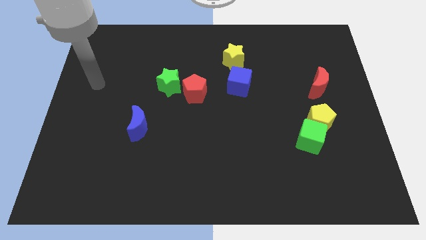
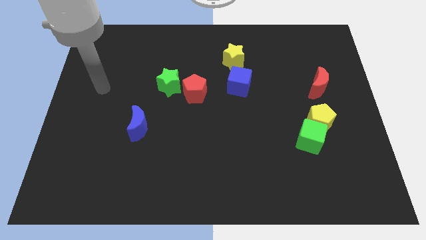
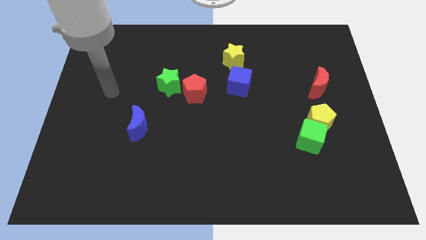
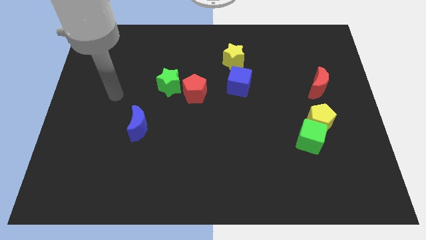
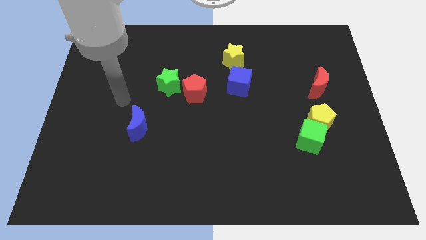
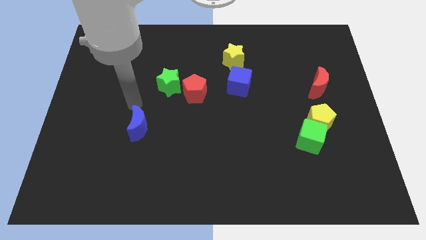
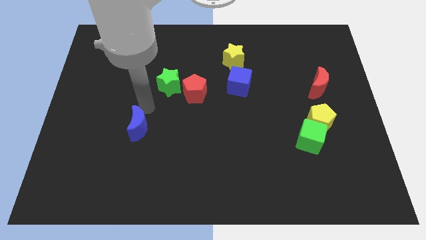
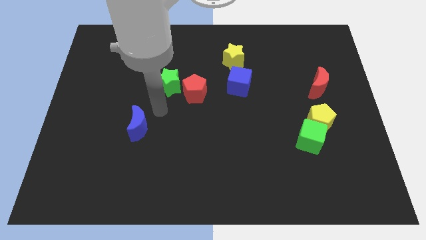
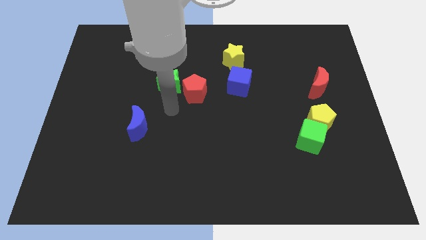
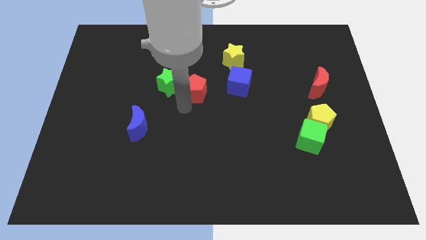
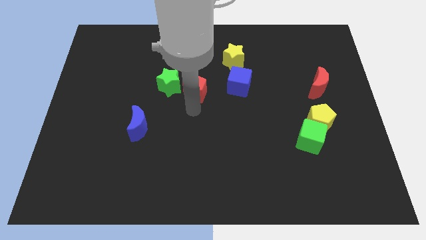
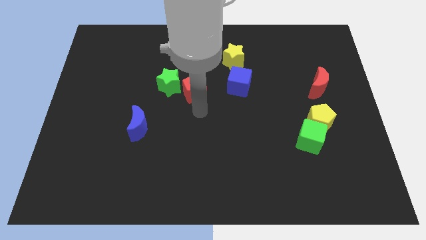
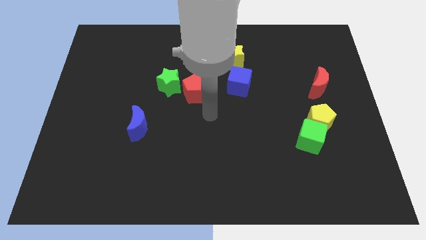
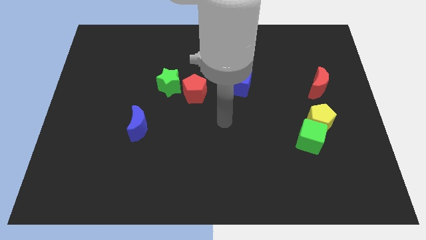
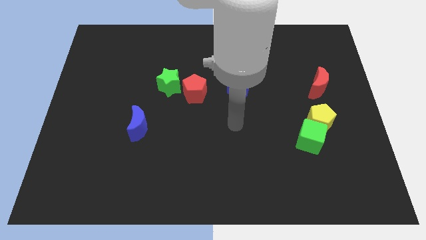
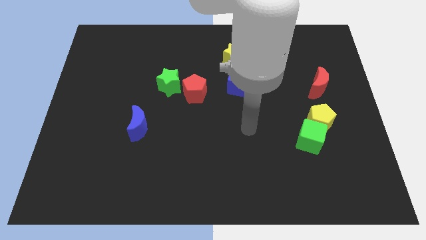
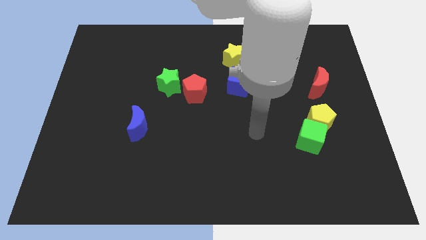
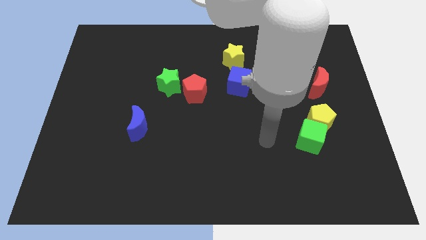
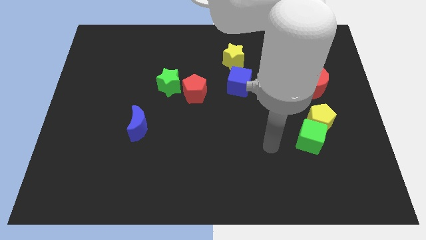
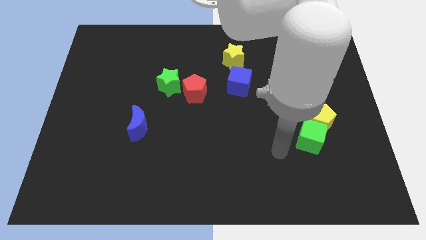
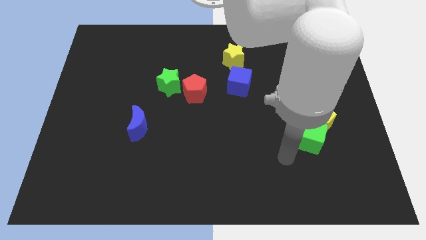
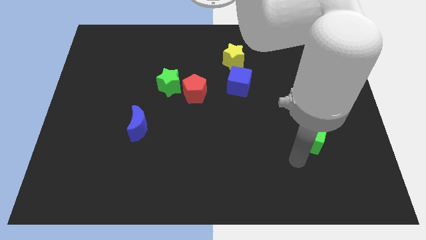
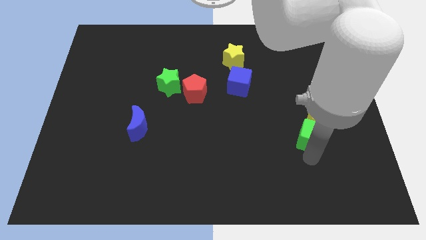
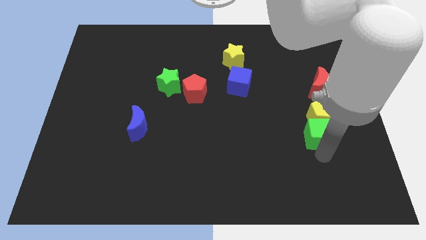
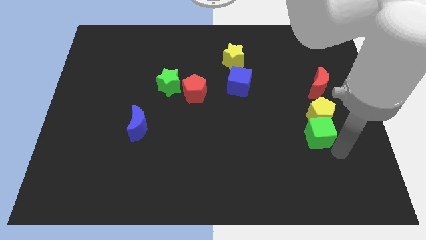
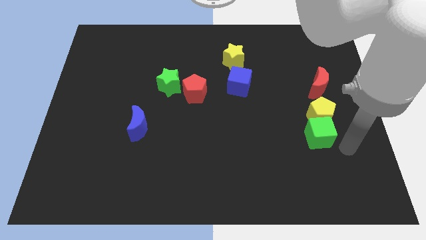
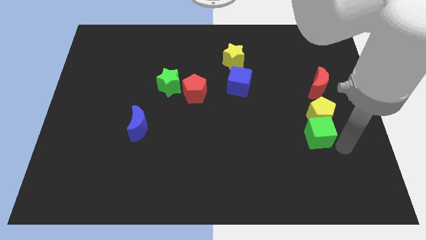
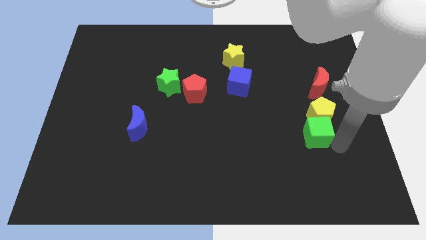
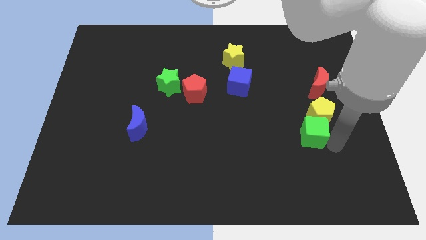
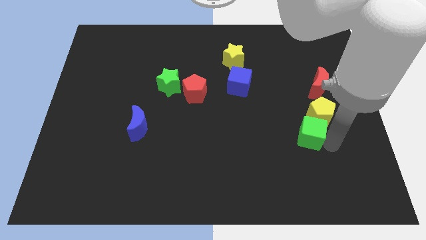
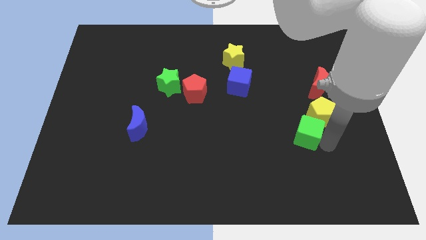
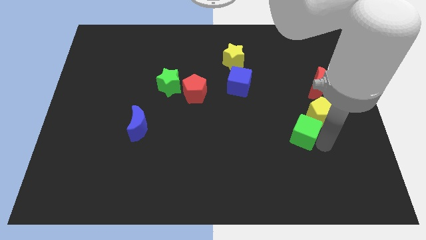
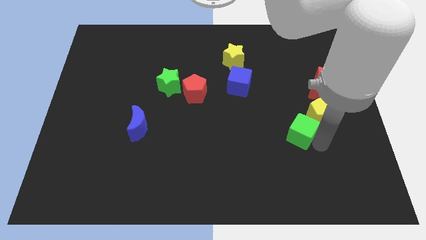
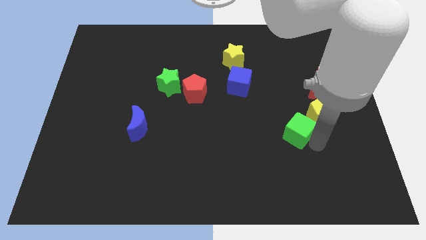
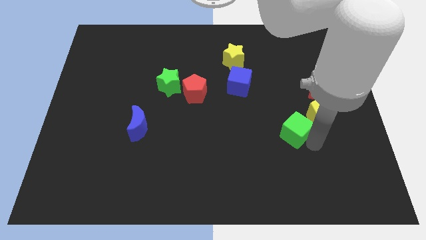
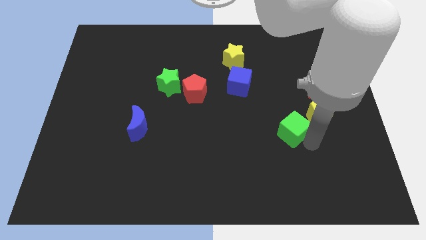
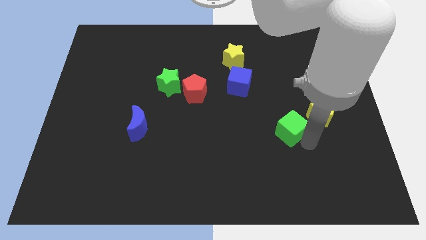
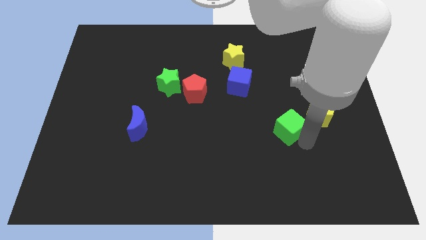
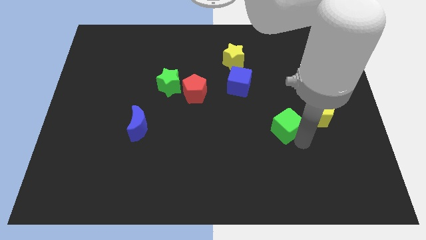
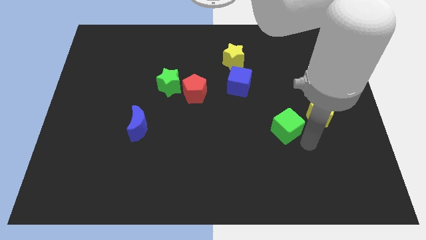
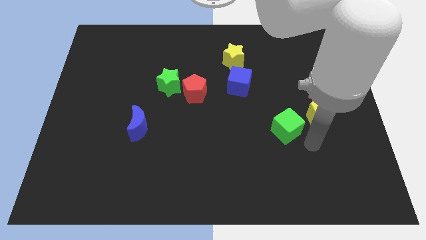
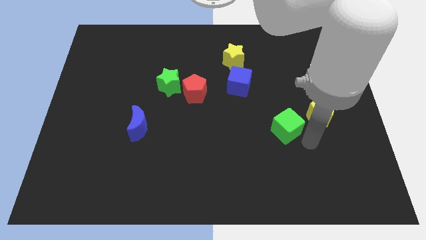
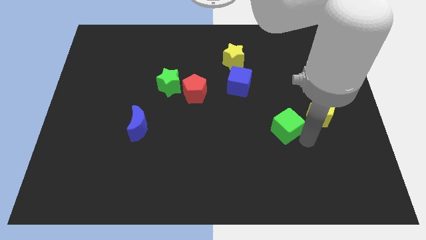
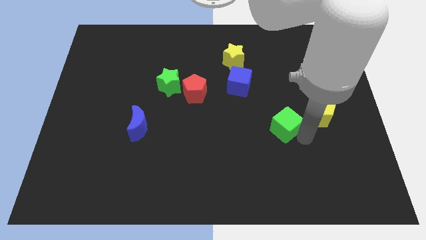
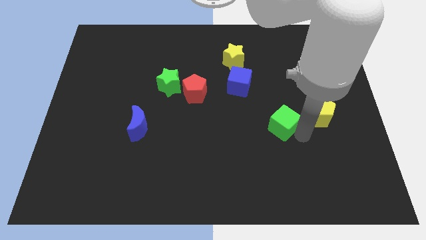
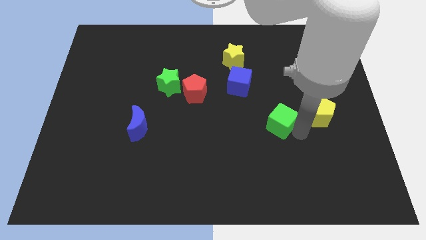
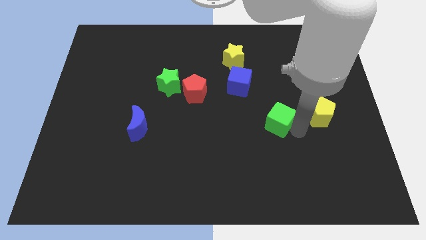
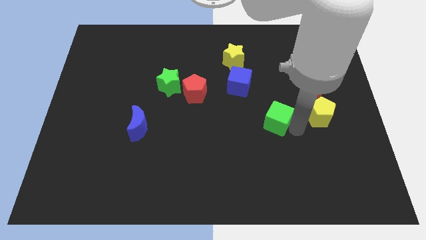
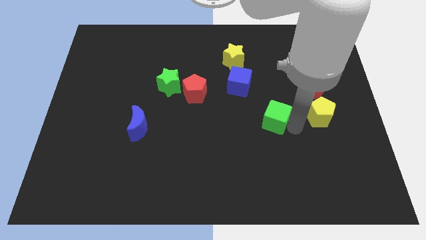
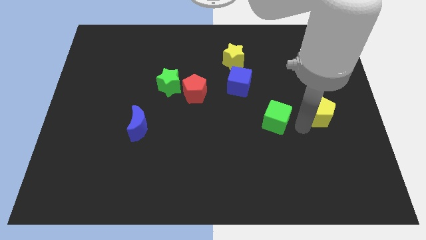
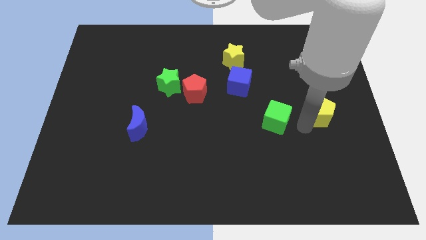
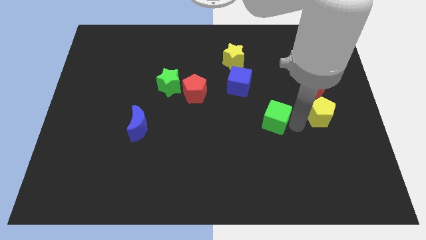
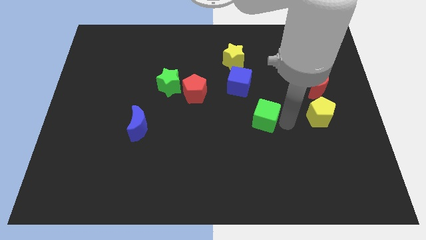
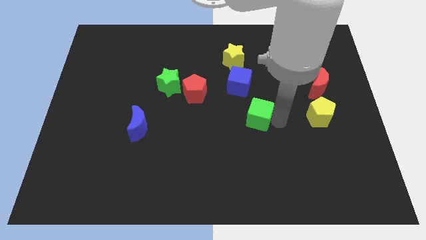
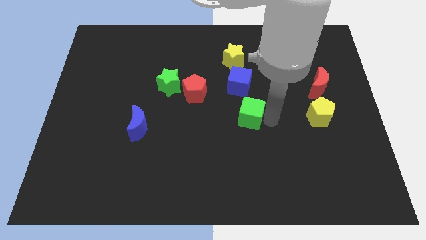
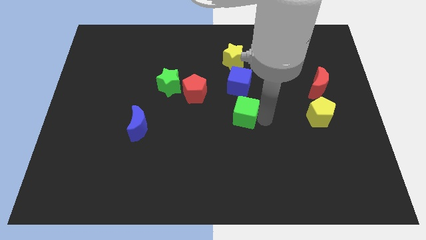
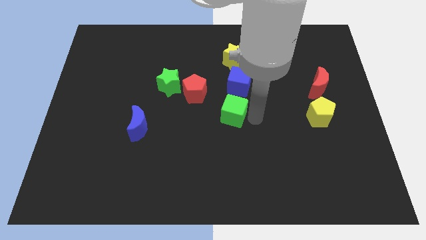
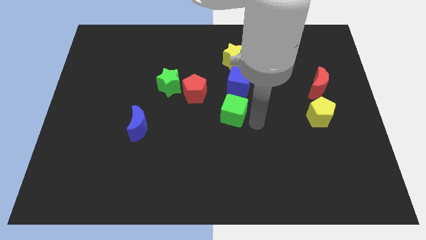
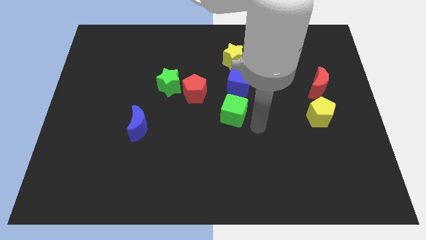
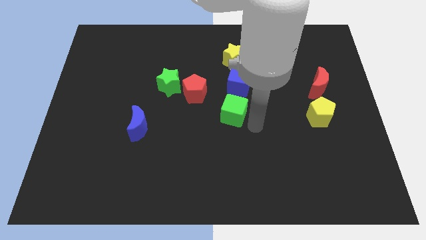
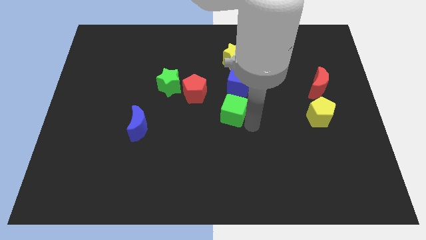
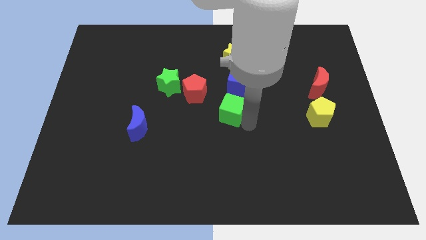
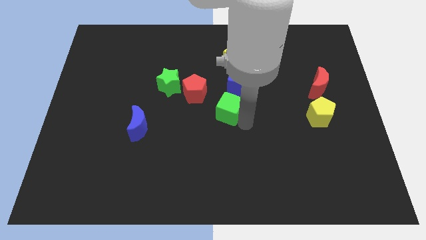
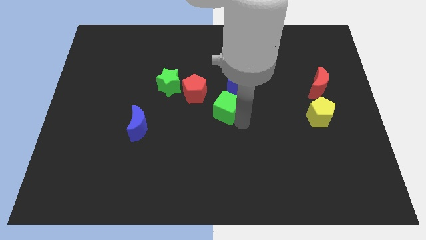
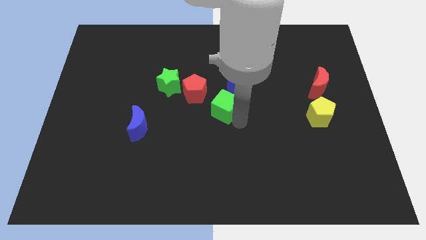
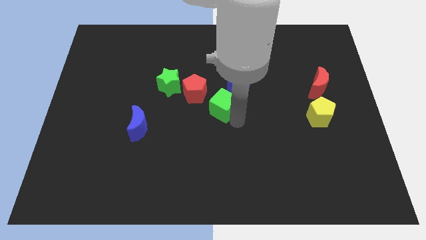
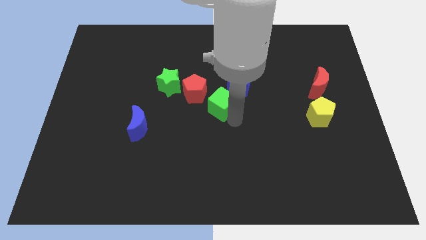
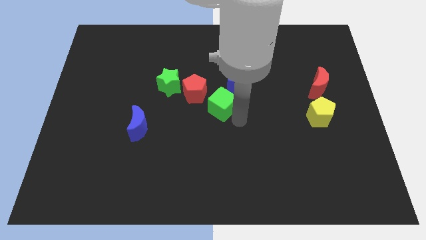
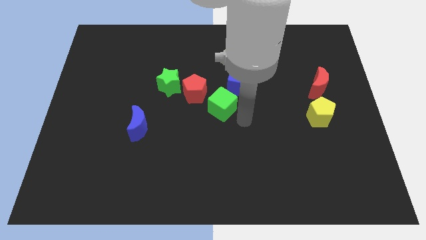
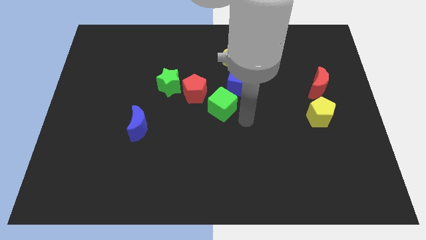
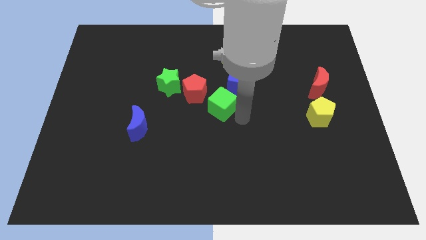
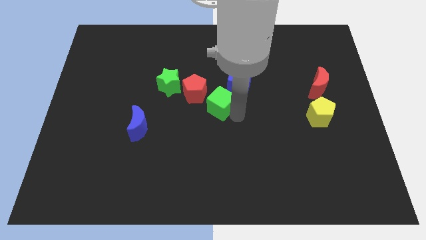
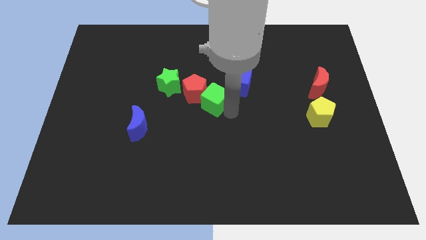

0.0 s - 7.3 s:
slide the green cube to the red pentagon
